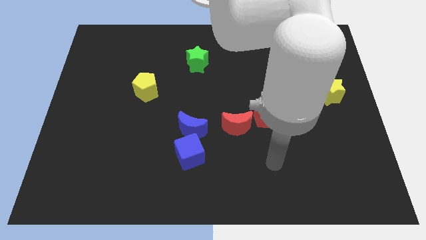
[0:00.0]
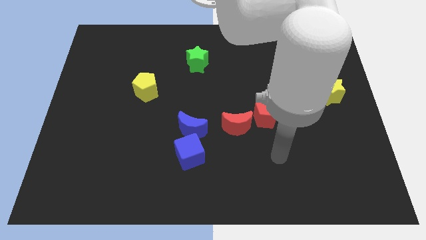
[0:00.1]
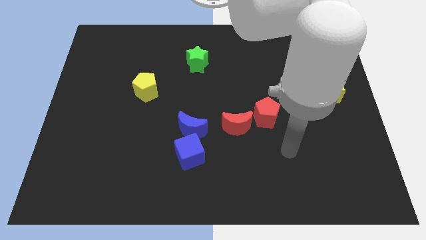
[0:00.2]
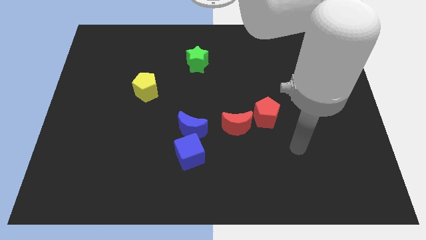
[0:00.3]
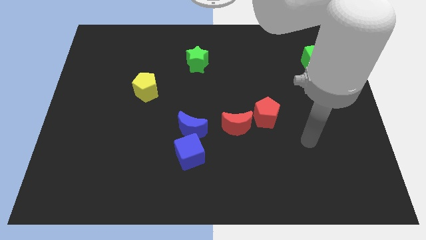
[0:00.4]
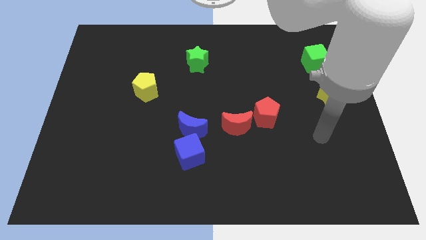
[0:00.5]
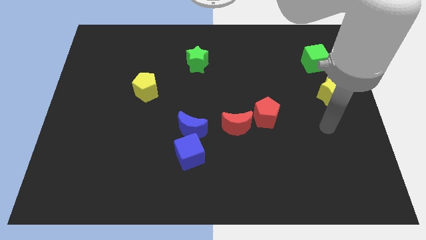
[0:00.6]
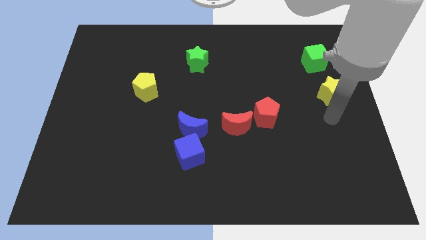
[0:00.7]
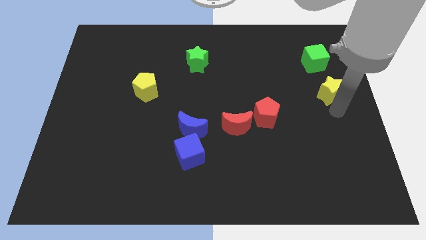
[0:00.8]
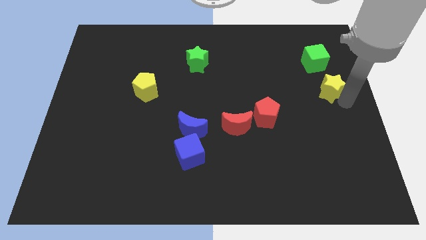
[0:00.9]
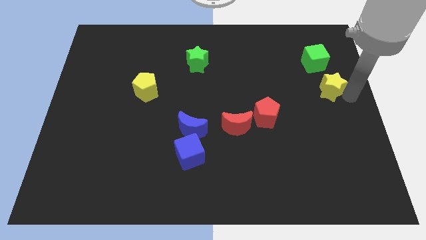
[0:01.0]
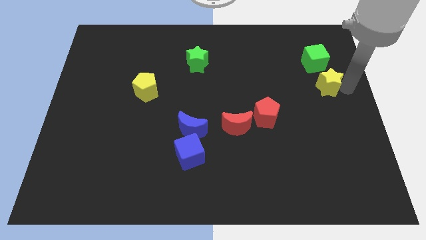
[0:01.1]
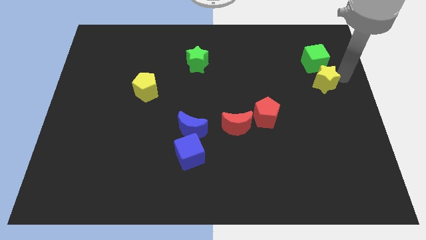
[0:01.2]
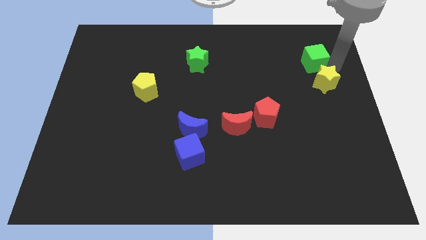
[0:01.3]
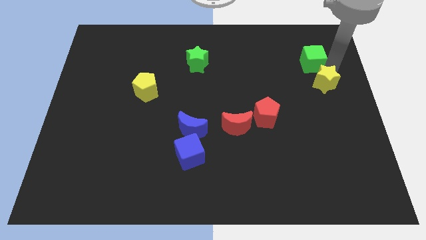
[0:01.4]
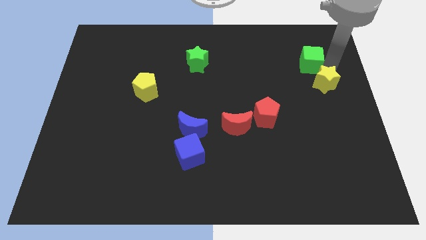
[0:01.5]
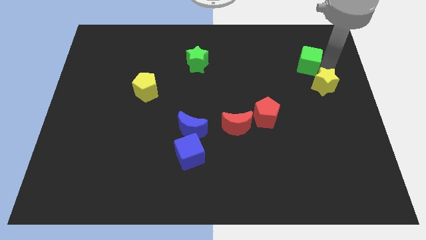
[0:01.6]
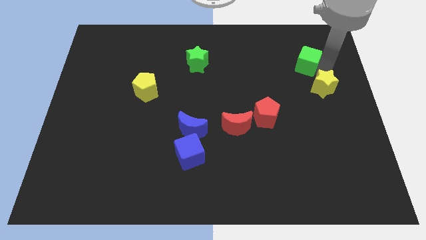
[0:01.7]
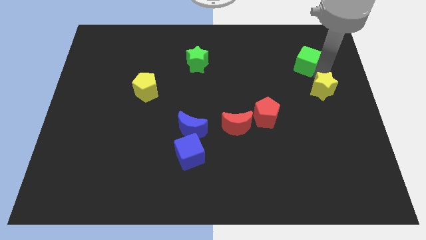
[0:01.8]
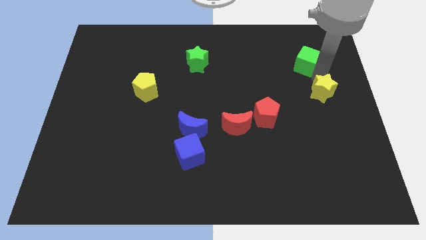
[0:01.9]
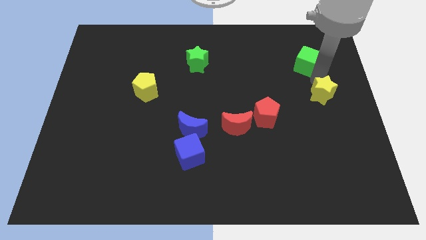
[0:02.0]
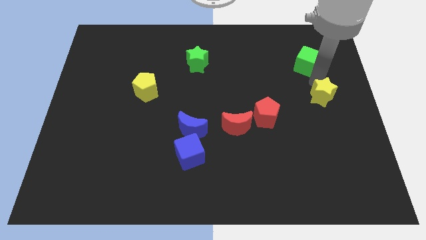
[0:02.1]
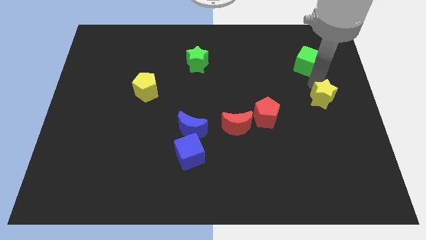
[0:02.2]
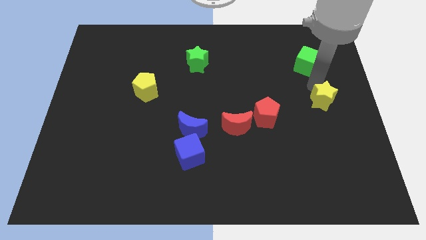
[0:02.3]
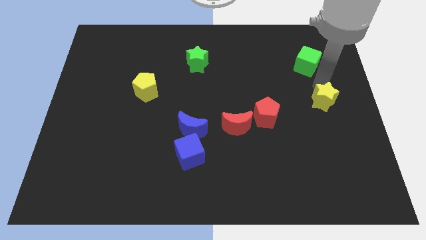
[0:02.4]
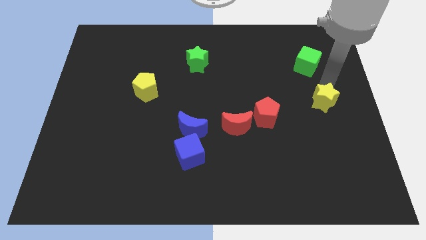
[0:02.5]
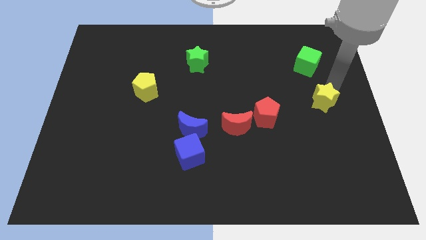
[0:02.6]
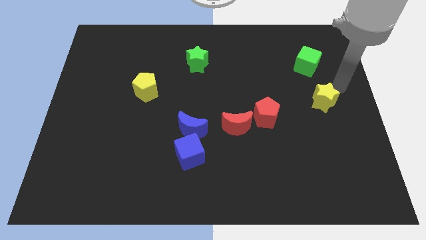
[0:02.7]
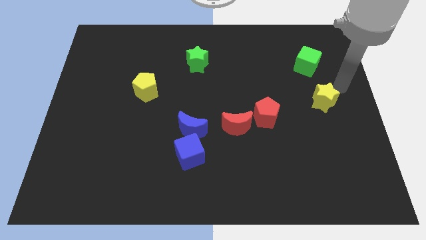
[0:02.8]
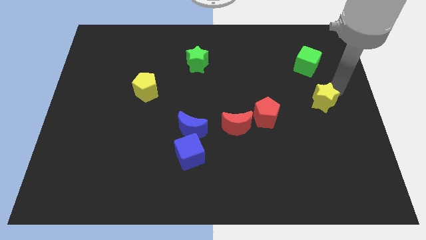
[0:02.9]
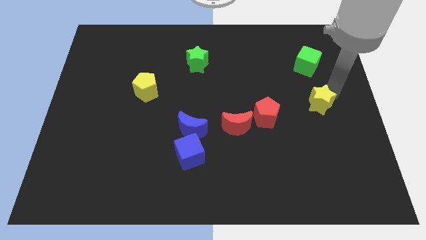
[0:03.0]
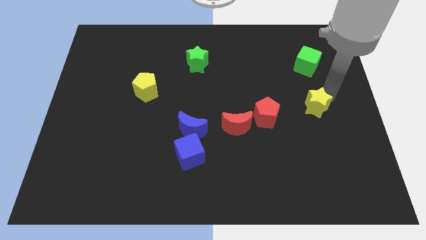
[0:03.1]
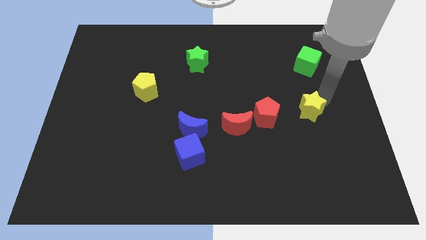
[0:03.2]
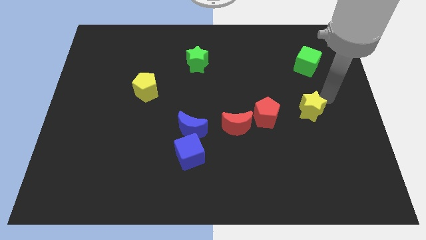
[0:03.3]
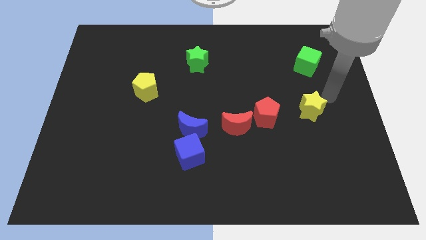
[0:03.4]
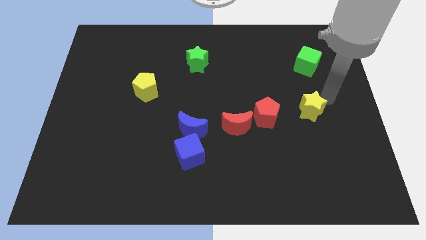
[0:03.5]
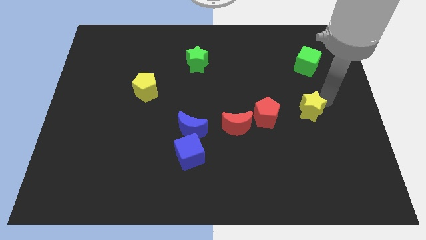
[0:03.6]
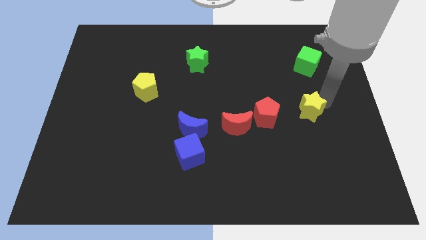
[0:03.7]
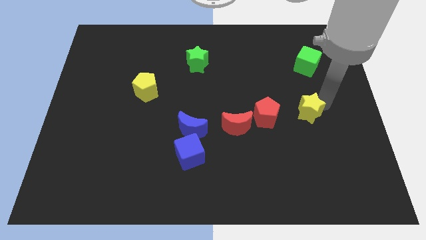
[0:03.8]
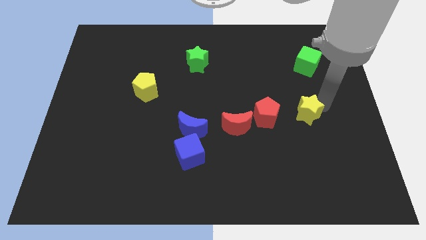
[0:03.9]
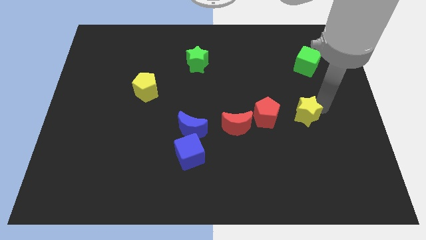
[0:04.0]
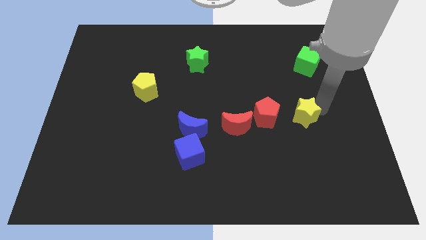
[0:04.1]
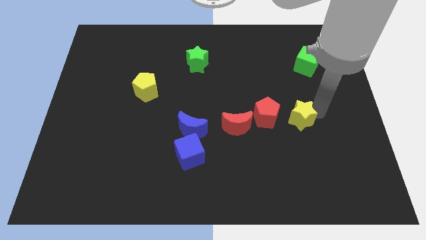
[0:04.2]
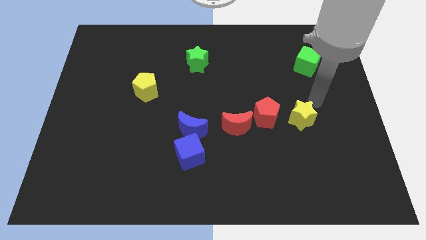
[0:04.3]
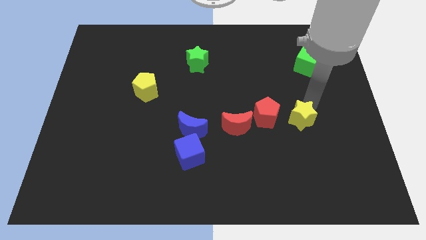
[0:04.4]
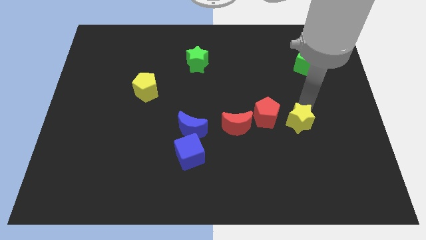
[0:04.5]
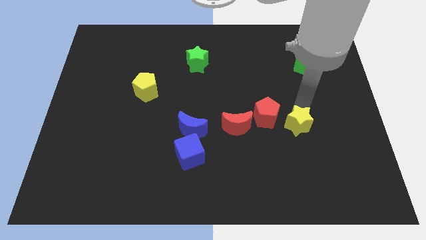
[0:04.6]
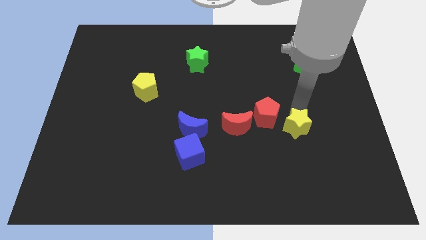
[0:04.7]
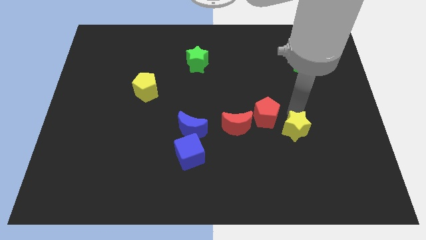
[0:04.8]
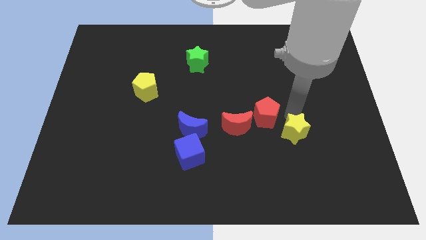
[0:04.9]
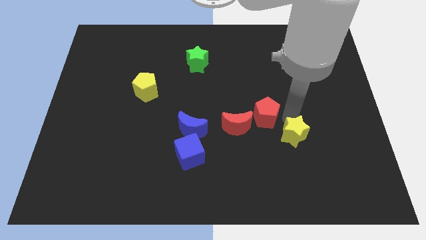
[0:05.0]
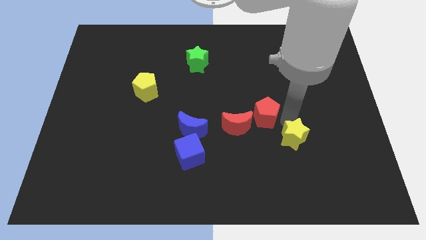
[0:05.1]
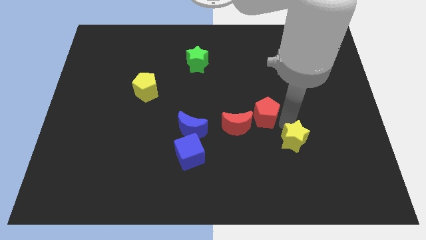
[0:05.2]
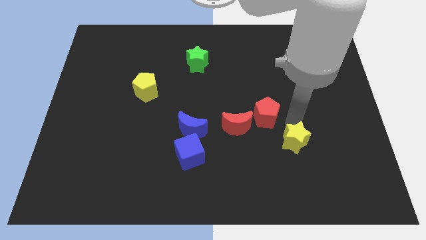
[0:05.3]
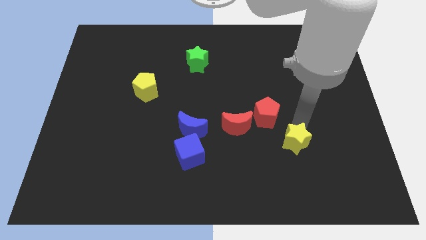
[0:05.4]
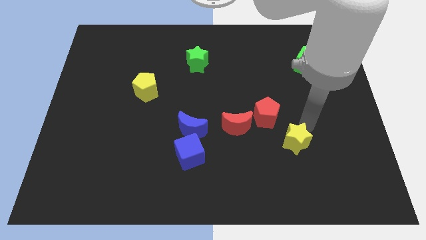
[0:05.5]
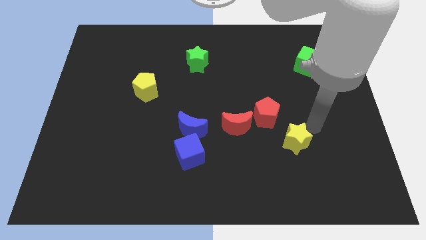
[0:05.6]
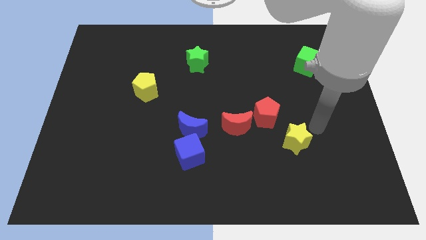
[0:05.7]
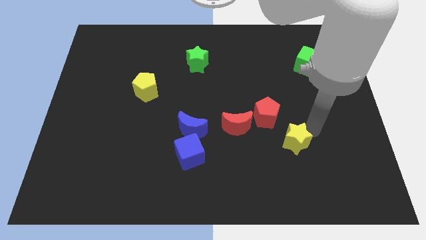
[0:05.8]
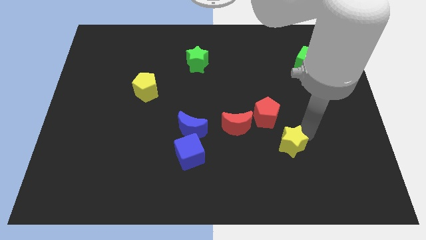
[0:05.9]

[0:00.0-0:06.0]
move the yellow star to the bottom side of the red pentagon

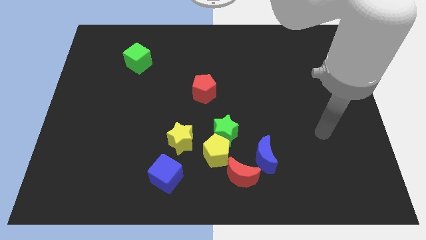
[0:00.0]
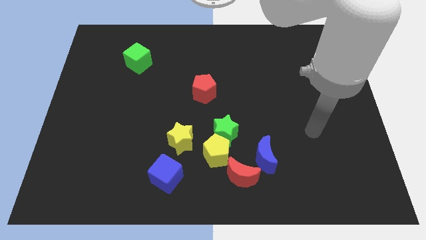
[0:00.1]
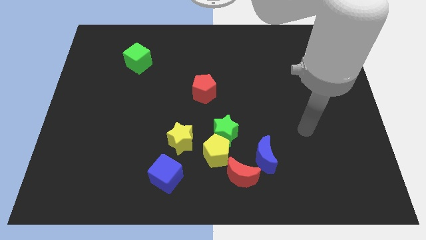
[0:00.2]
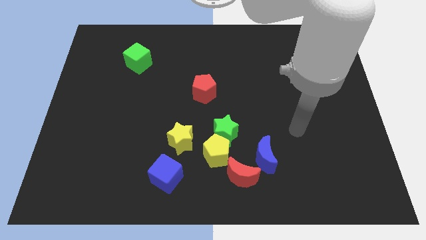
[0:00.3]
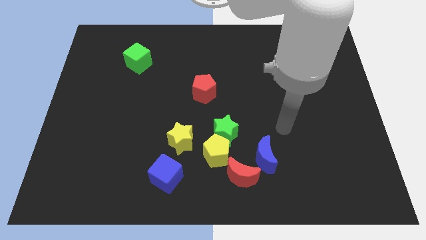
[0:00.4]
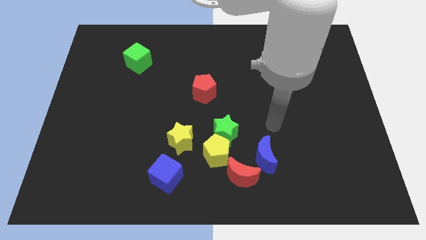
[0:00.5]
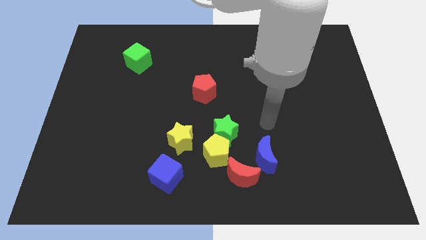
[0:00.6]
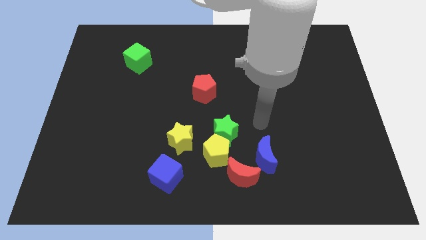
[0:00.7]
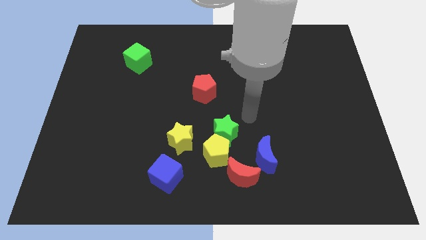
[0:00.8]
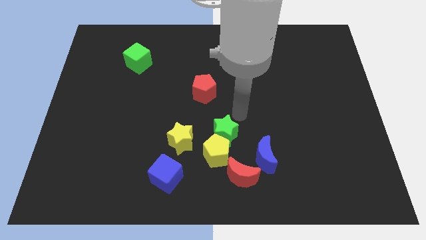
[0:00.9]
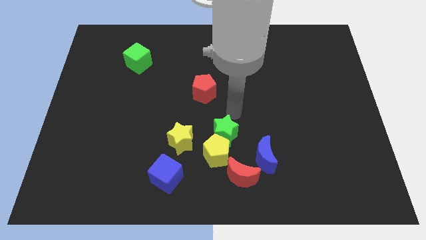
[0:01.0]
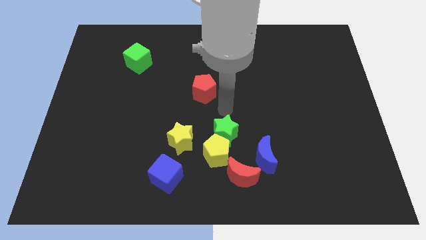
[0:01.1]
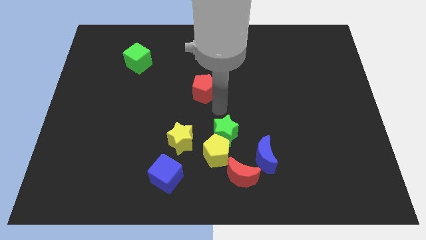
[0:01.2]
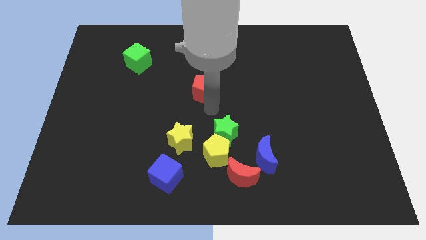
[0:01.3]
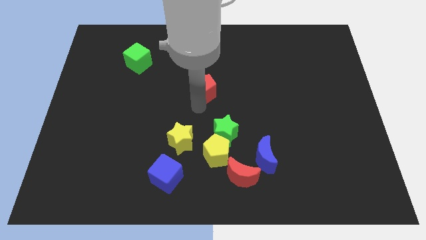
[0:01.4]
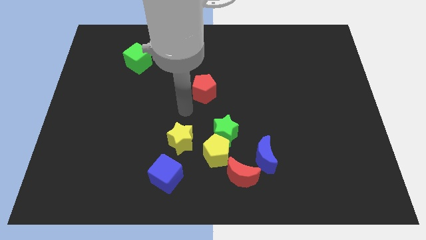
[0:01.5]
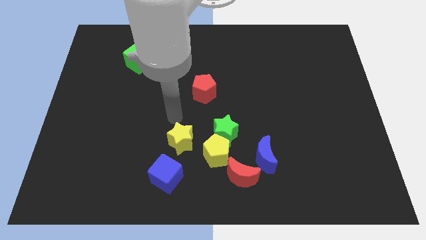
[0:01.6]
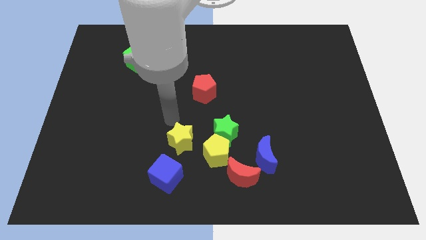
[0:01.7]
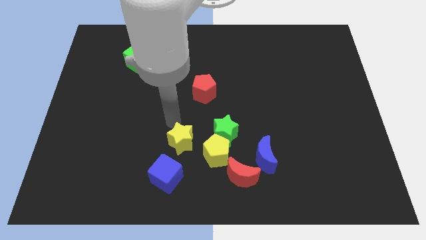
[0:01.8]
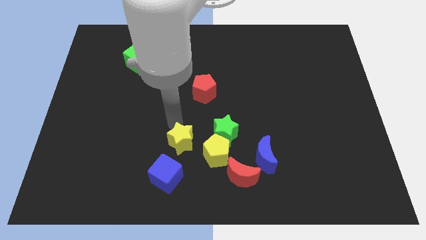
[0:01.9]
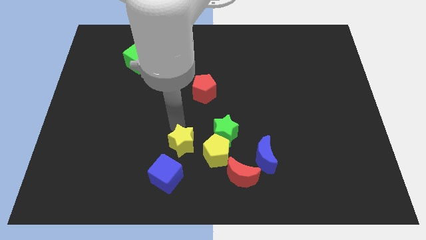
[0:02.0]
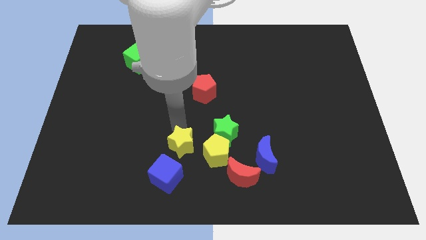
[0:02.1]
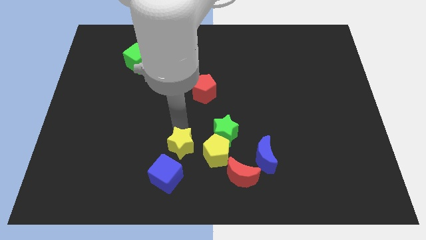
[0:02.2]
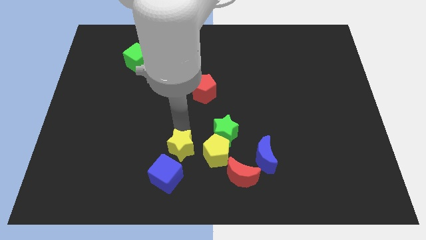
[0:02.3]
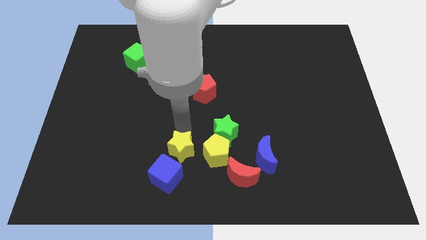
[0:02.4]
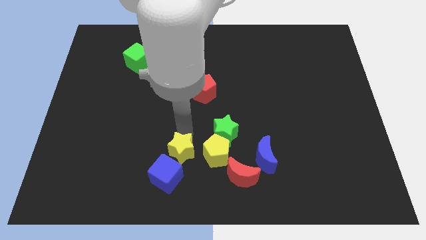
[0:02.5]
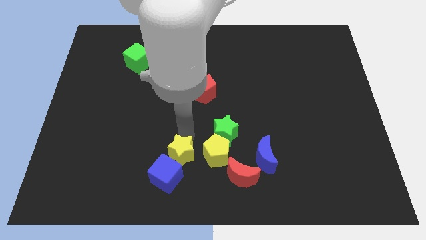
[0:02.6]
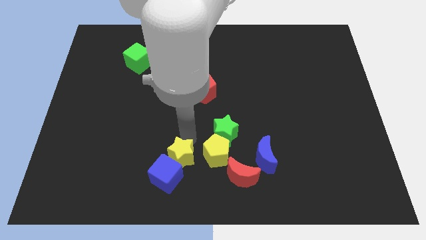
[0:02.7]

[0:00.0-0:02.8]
slide the yellow star to the right side of the blue cube
